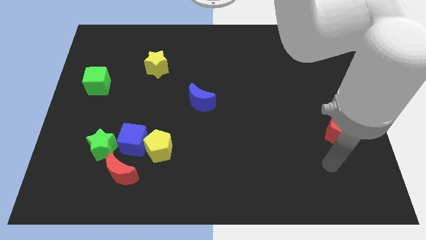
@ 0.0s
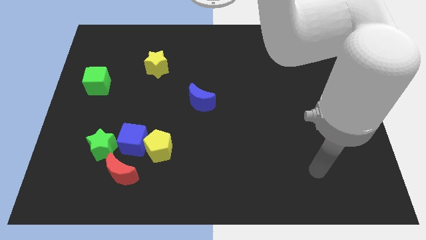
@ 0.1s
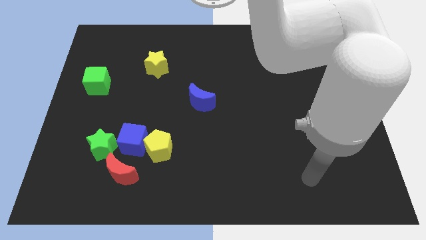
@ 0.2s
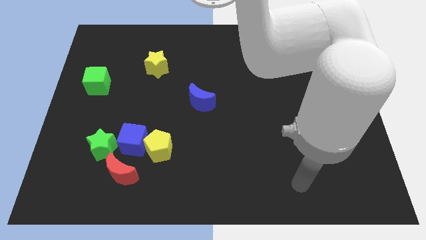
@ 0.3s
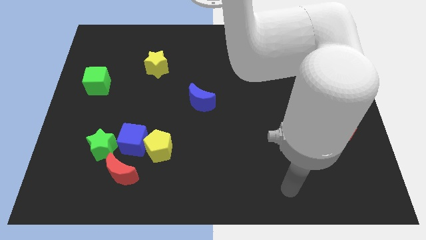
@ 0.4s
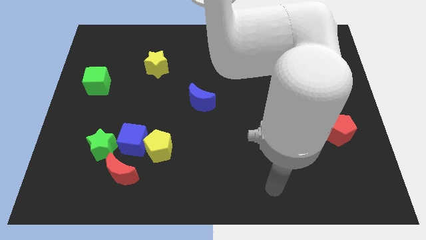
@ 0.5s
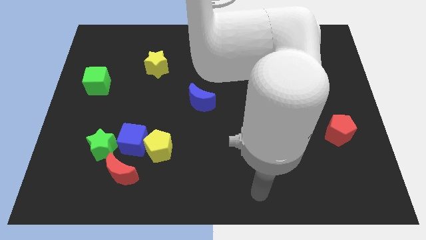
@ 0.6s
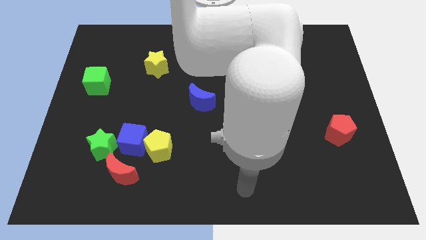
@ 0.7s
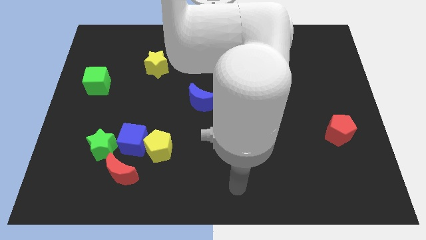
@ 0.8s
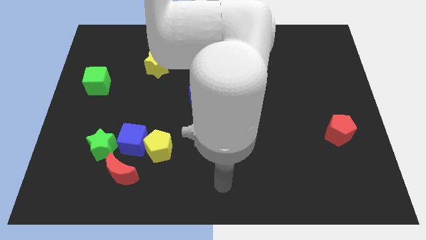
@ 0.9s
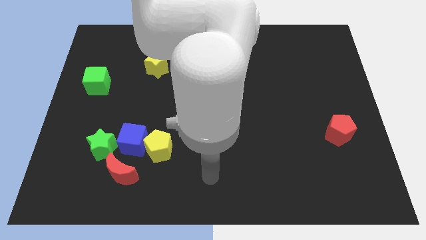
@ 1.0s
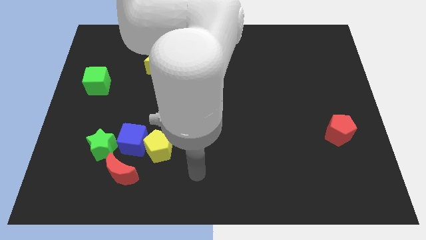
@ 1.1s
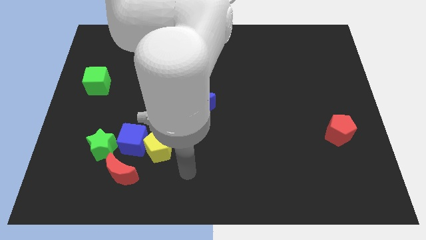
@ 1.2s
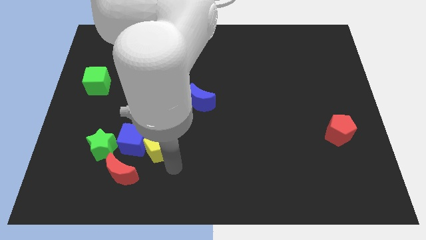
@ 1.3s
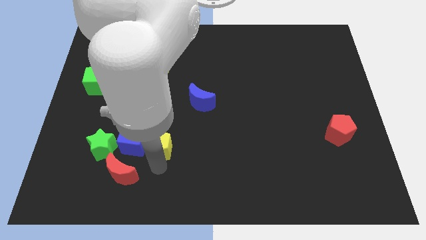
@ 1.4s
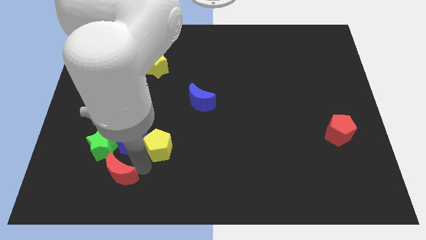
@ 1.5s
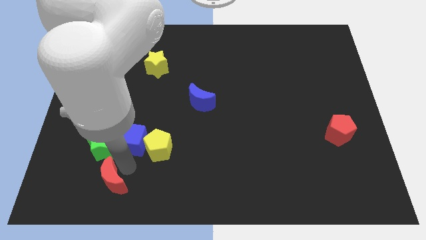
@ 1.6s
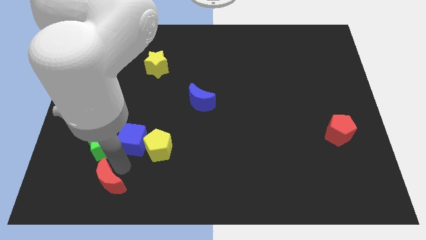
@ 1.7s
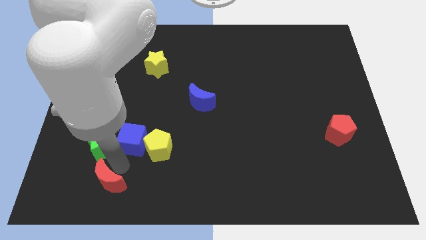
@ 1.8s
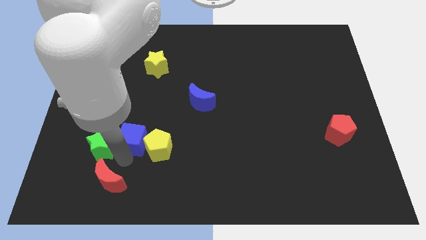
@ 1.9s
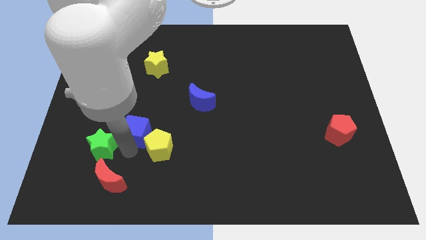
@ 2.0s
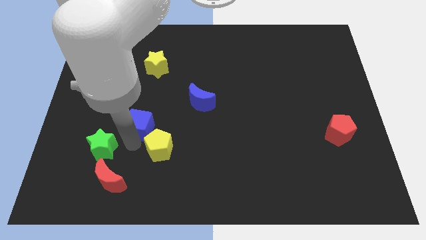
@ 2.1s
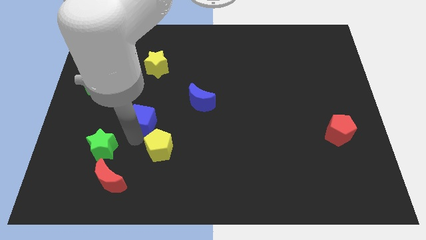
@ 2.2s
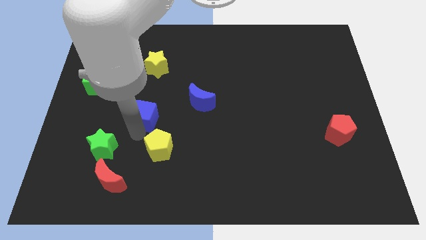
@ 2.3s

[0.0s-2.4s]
separate the blue cube from the yellow pentagon, green star, and red moon

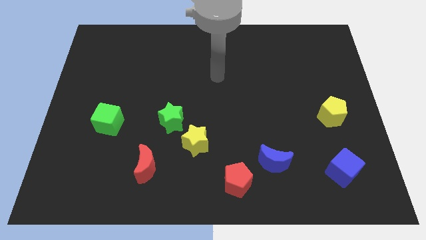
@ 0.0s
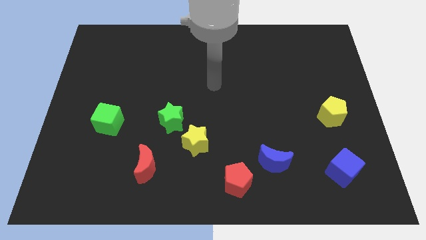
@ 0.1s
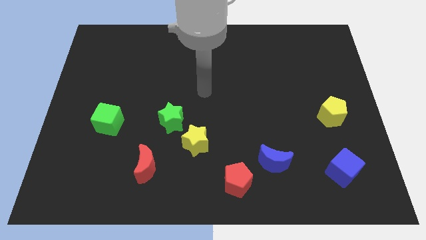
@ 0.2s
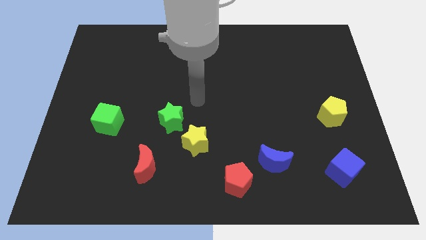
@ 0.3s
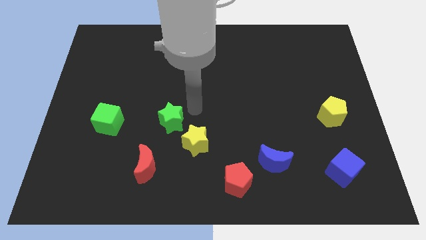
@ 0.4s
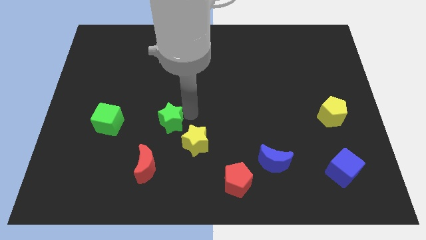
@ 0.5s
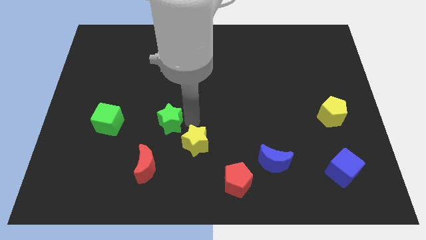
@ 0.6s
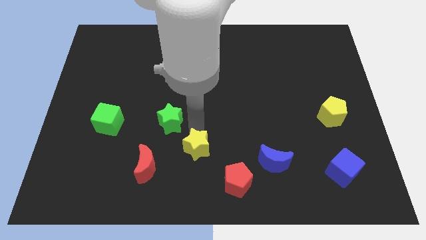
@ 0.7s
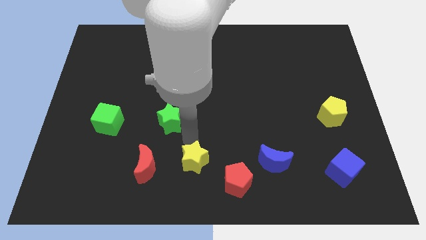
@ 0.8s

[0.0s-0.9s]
separate the green star from the yellow star

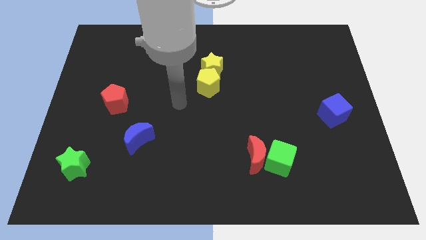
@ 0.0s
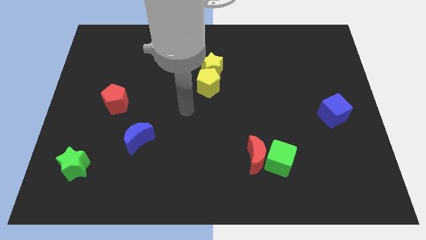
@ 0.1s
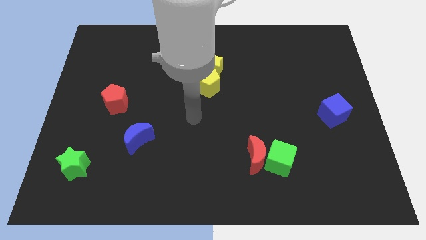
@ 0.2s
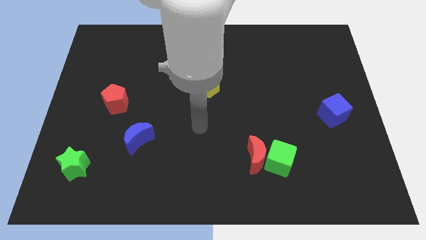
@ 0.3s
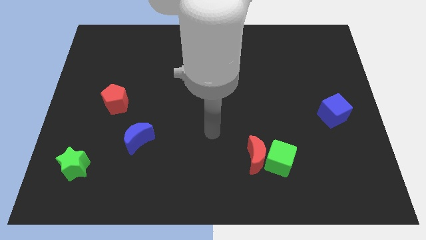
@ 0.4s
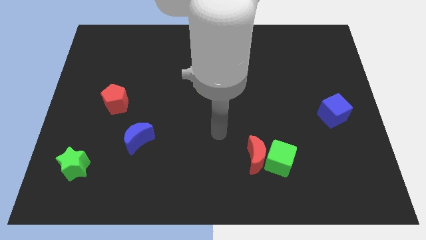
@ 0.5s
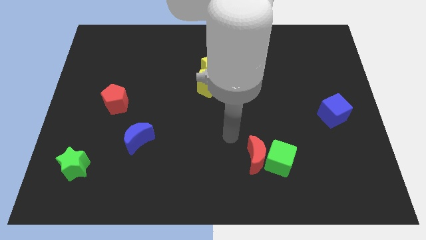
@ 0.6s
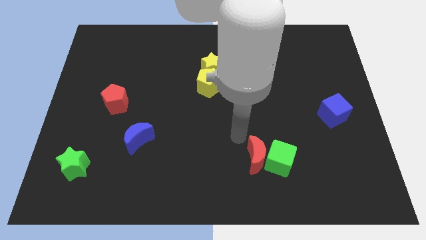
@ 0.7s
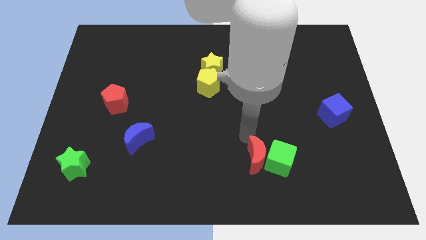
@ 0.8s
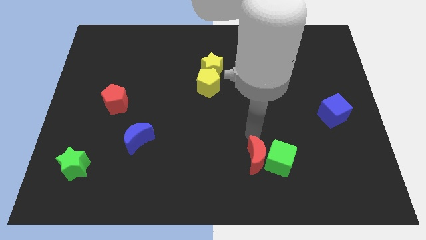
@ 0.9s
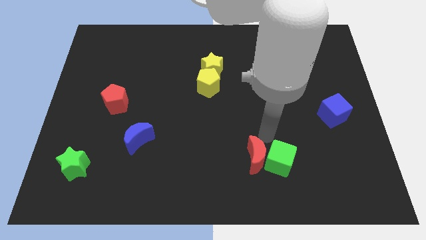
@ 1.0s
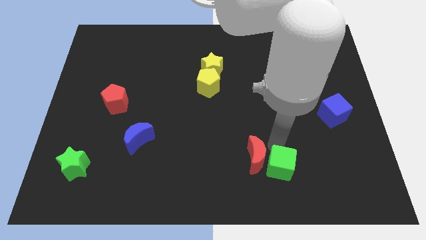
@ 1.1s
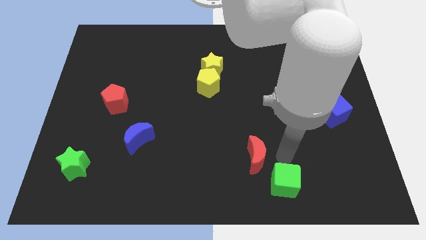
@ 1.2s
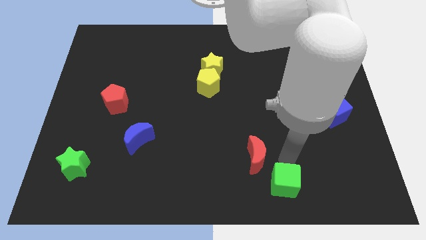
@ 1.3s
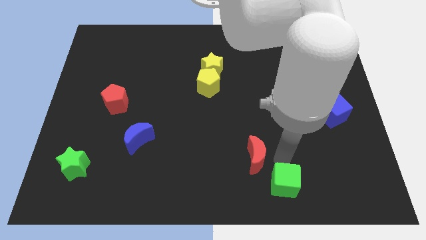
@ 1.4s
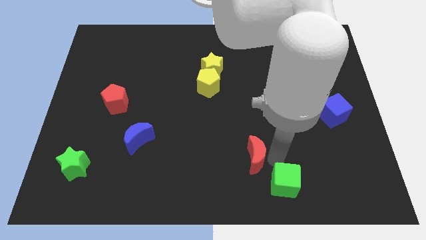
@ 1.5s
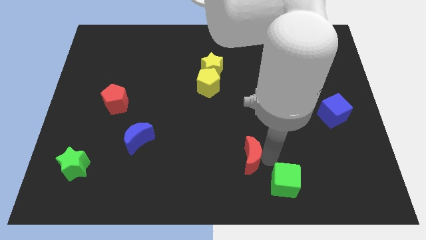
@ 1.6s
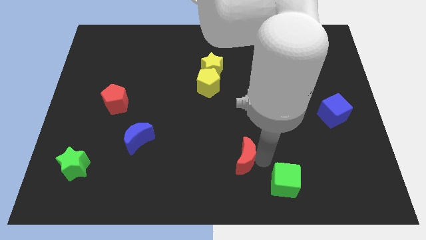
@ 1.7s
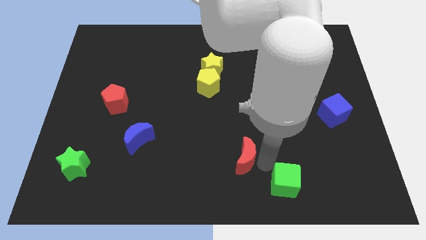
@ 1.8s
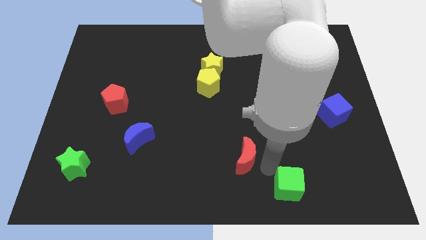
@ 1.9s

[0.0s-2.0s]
move the red moon away from the green cube

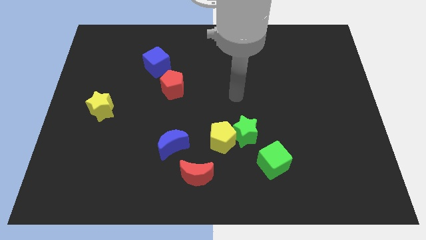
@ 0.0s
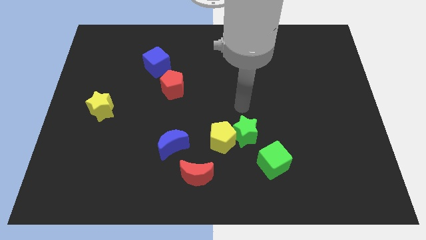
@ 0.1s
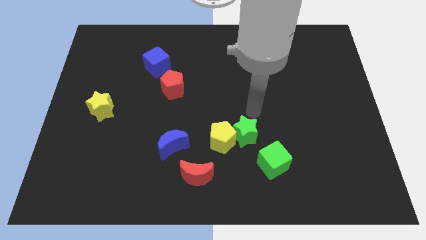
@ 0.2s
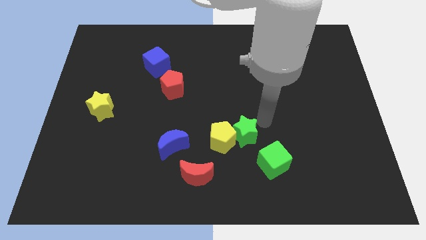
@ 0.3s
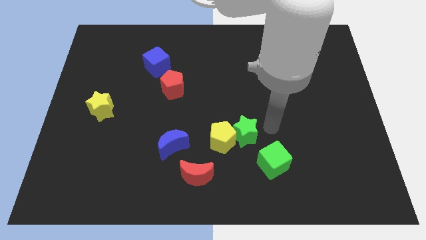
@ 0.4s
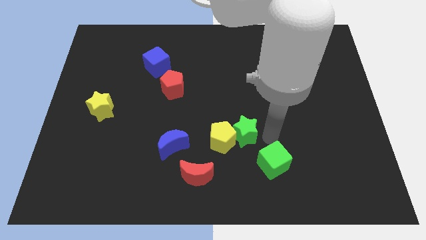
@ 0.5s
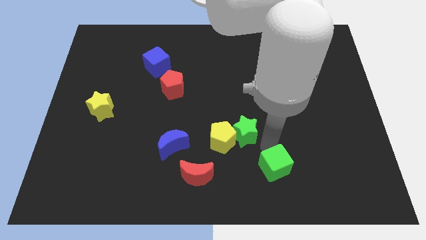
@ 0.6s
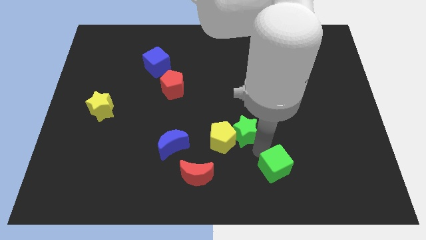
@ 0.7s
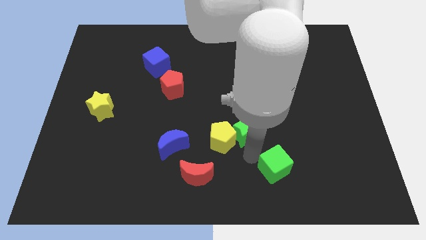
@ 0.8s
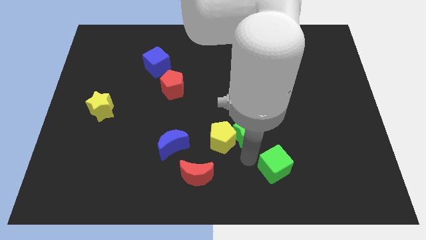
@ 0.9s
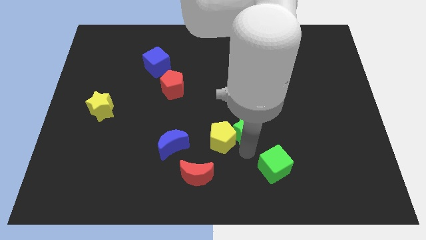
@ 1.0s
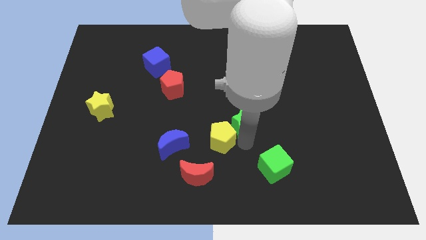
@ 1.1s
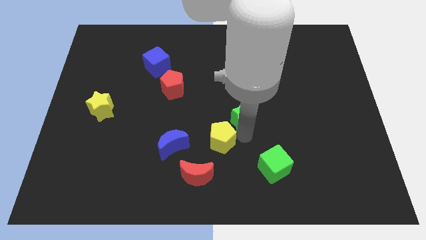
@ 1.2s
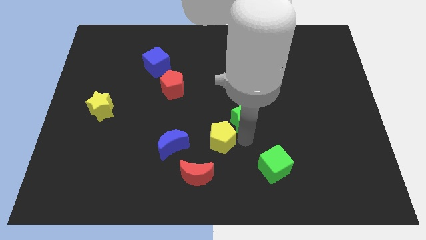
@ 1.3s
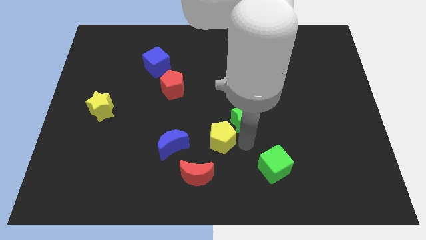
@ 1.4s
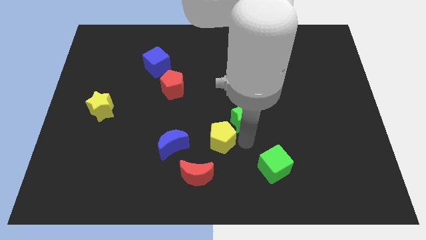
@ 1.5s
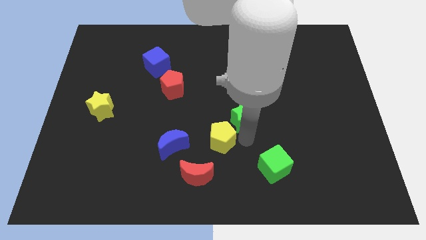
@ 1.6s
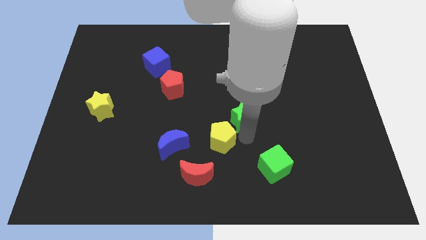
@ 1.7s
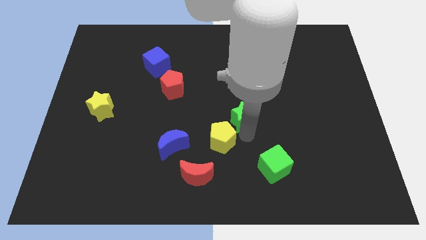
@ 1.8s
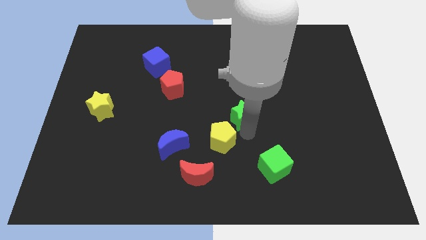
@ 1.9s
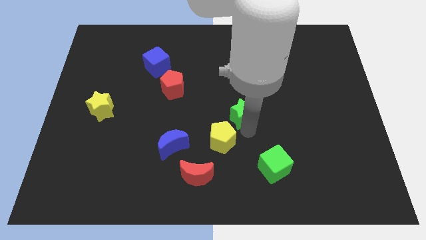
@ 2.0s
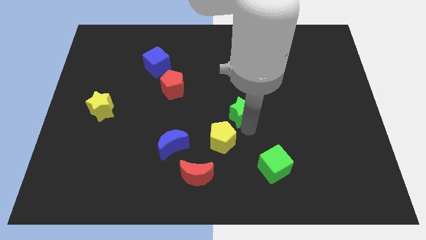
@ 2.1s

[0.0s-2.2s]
pull the green star apart from the yellow pentagon and green cube

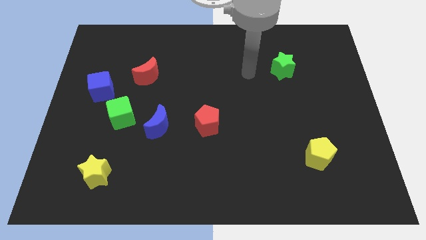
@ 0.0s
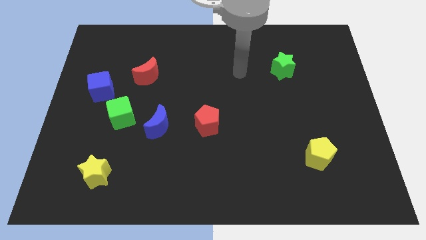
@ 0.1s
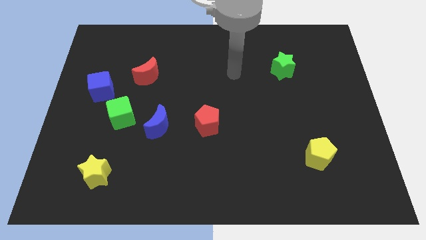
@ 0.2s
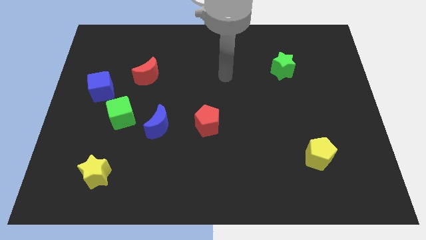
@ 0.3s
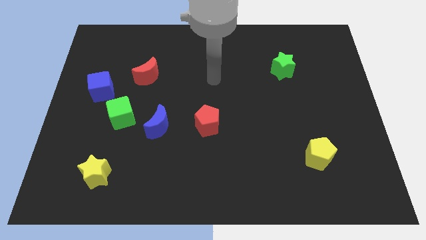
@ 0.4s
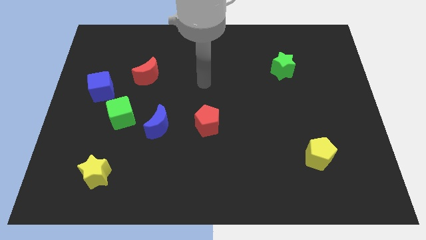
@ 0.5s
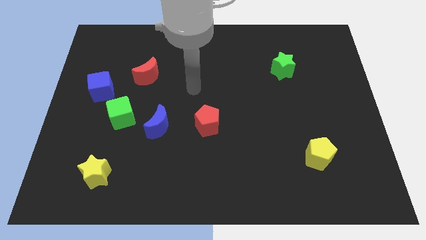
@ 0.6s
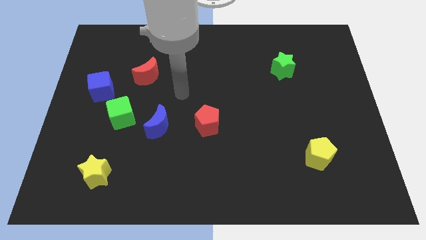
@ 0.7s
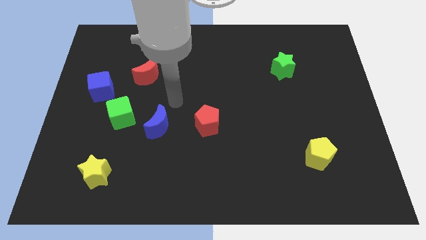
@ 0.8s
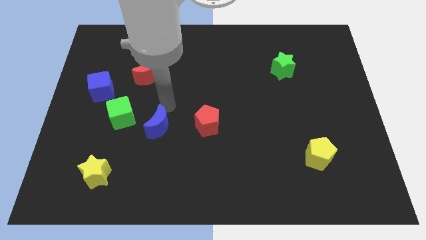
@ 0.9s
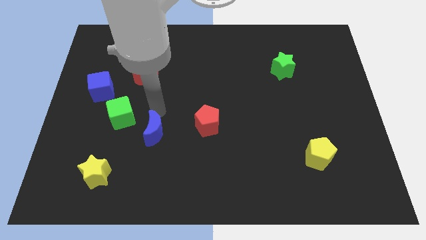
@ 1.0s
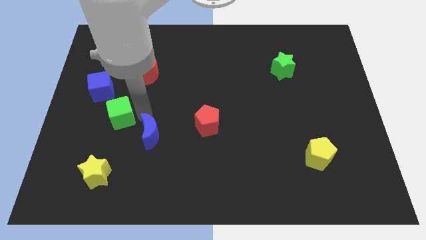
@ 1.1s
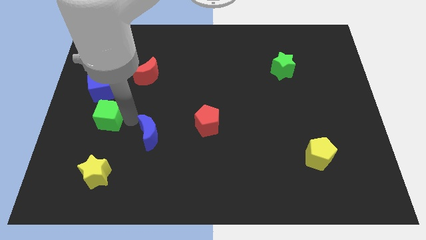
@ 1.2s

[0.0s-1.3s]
pull the blue moon apart from the green cube

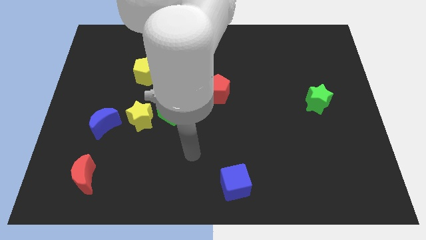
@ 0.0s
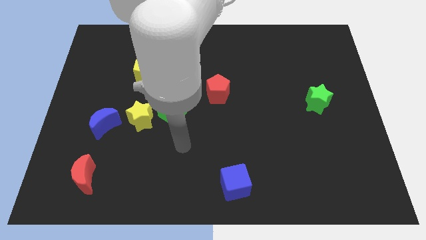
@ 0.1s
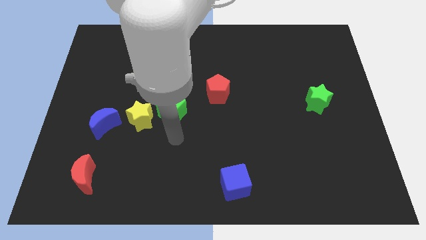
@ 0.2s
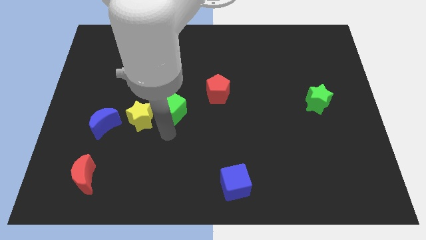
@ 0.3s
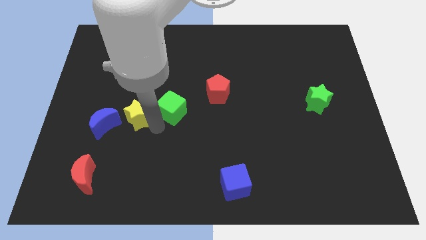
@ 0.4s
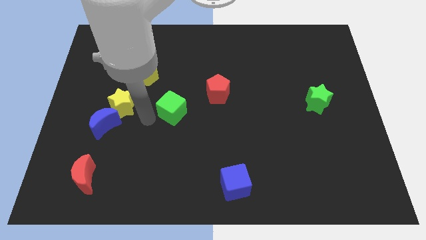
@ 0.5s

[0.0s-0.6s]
pull the green cube apart from the yellow star
